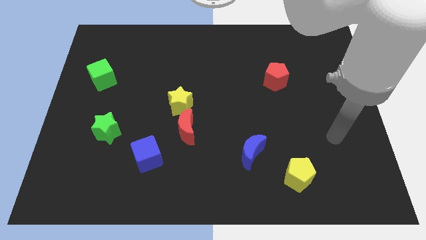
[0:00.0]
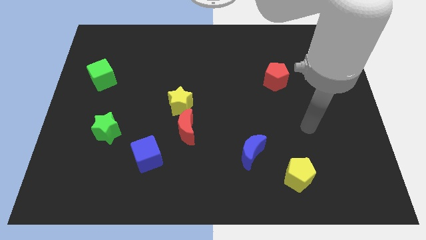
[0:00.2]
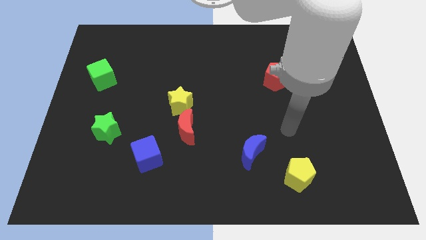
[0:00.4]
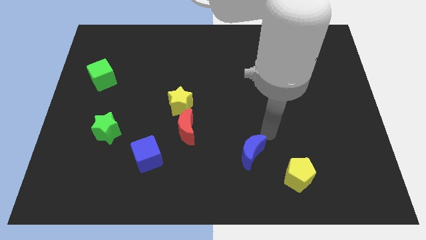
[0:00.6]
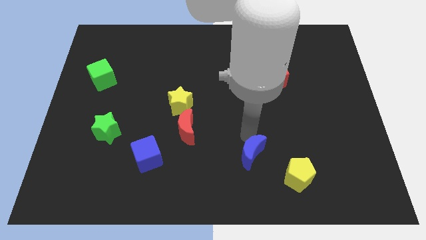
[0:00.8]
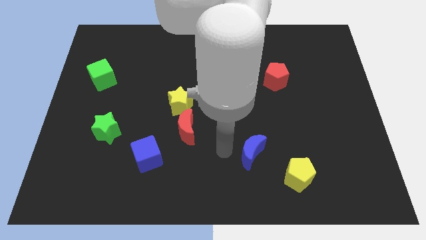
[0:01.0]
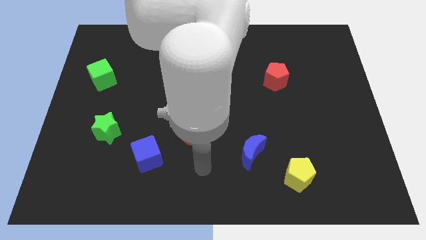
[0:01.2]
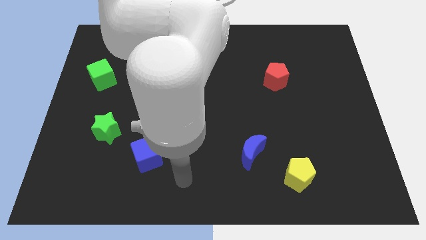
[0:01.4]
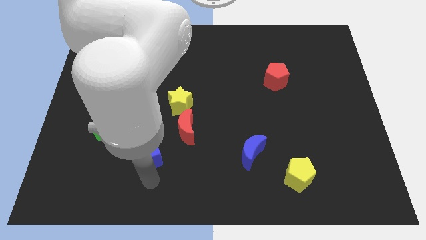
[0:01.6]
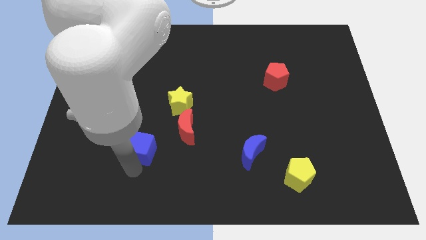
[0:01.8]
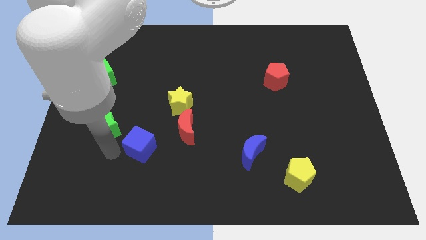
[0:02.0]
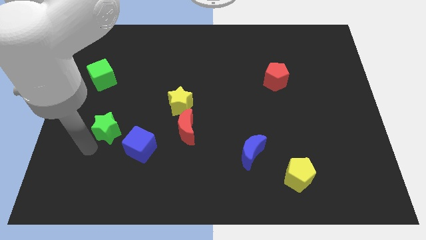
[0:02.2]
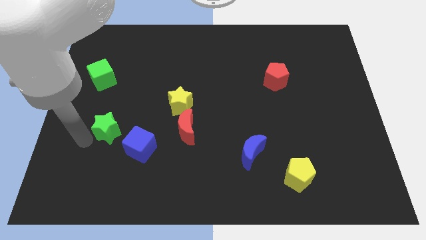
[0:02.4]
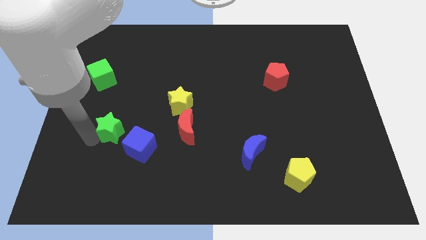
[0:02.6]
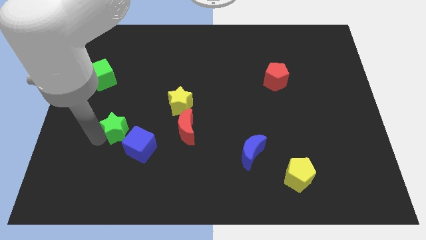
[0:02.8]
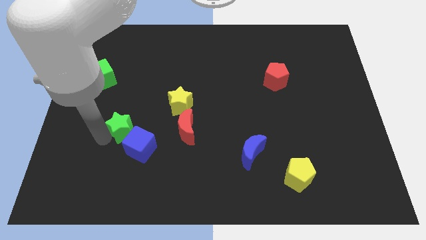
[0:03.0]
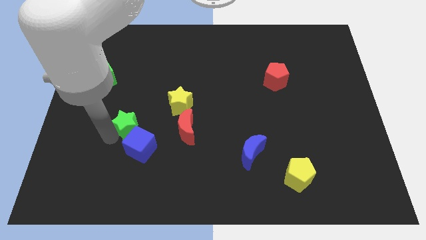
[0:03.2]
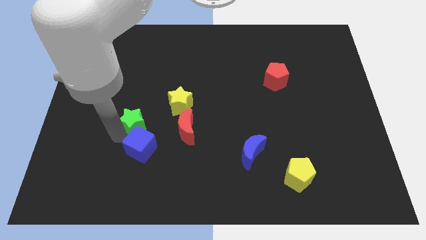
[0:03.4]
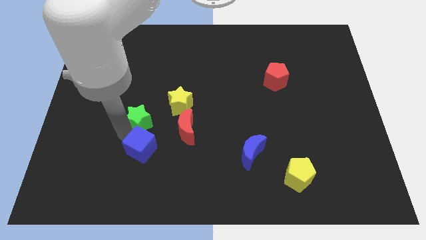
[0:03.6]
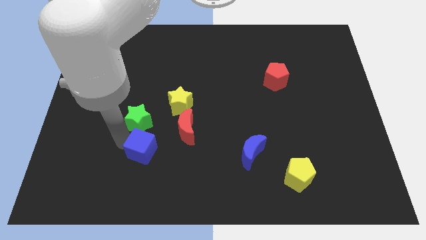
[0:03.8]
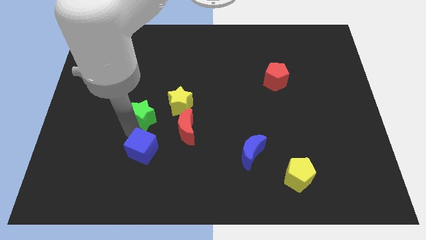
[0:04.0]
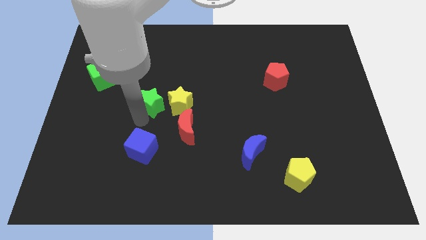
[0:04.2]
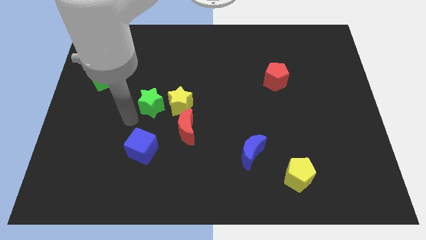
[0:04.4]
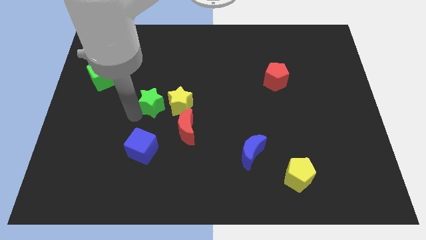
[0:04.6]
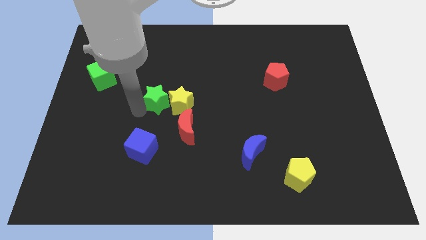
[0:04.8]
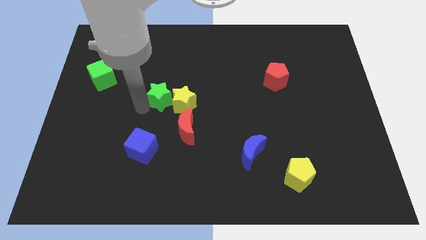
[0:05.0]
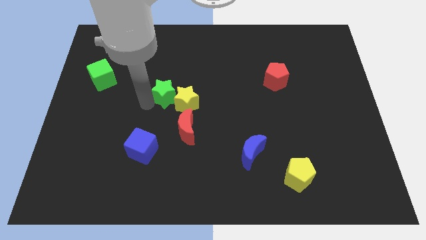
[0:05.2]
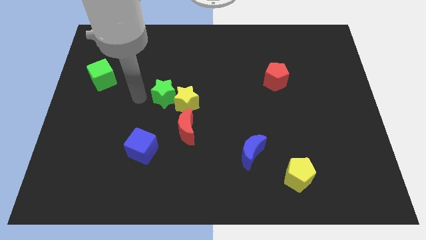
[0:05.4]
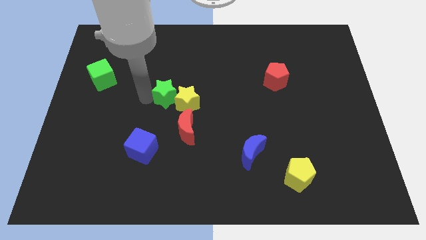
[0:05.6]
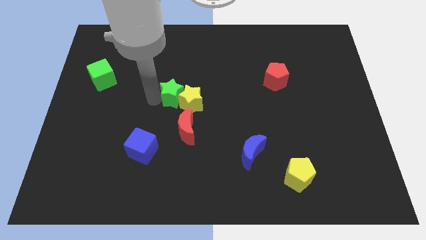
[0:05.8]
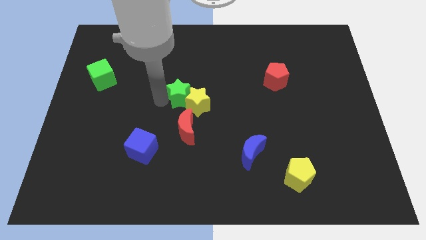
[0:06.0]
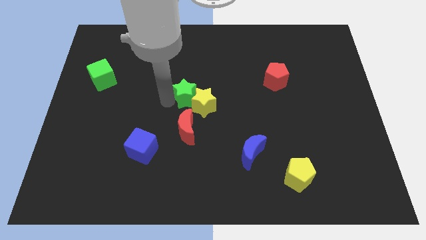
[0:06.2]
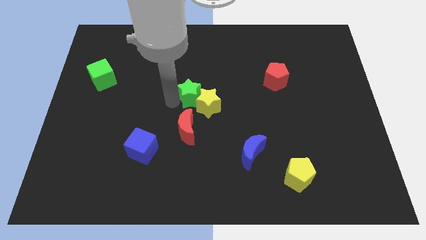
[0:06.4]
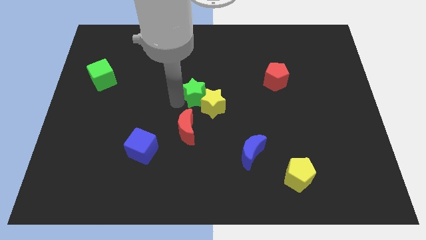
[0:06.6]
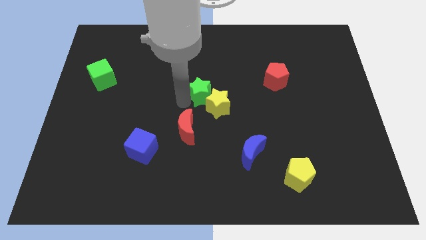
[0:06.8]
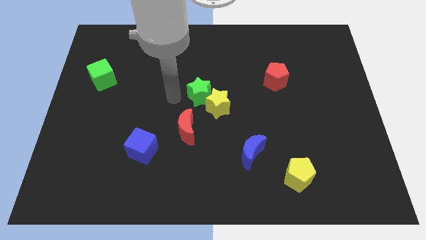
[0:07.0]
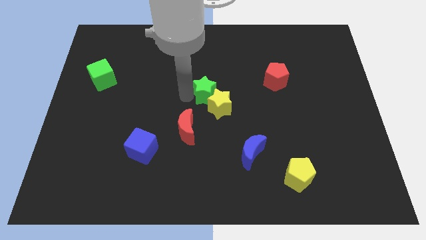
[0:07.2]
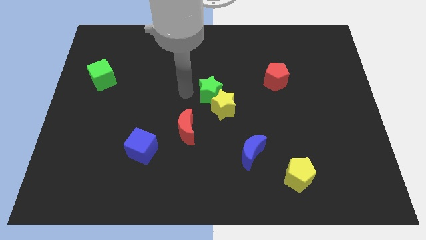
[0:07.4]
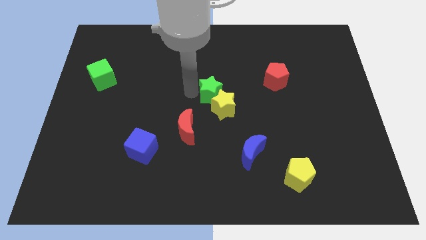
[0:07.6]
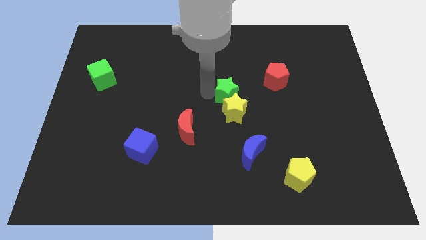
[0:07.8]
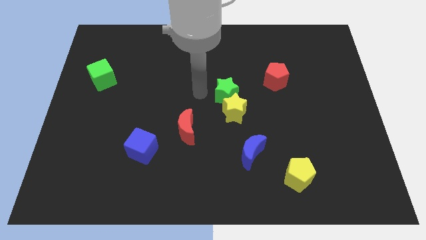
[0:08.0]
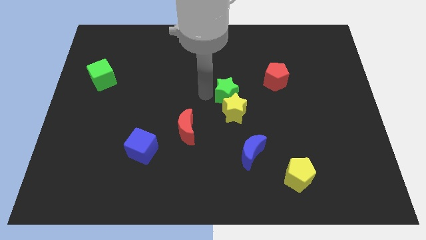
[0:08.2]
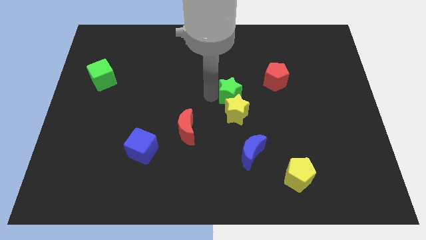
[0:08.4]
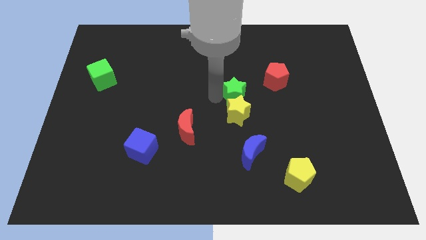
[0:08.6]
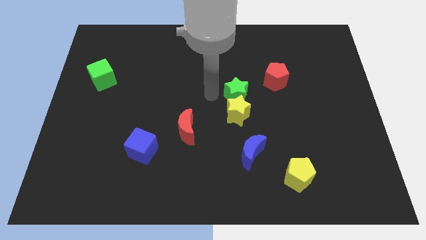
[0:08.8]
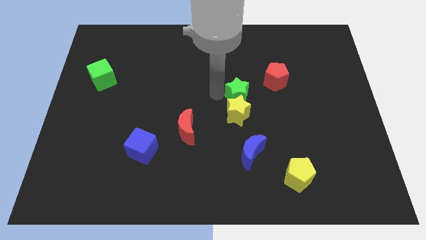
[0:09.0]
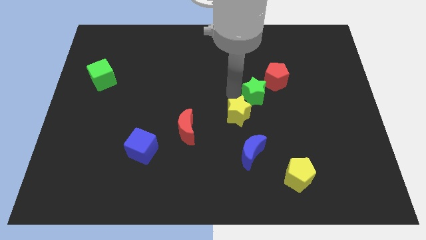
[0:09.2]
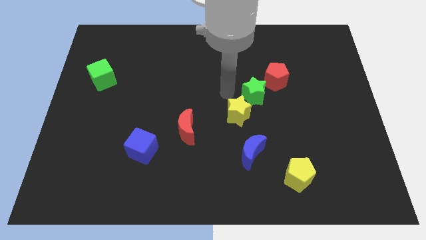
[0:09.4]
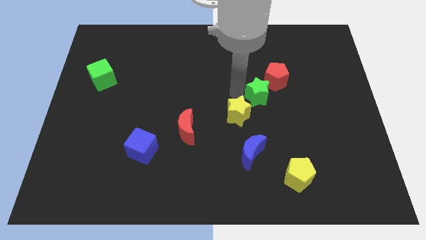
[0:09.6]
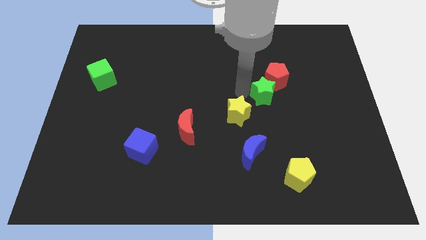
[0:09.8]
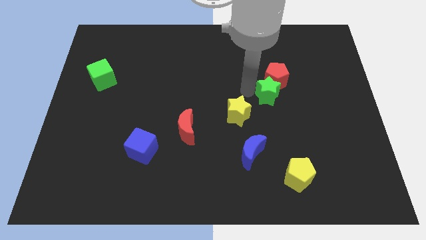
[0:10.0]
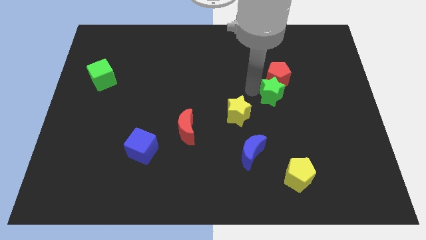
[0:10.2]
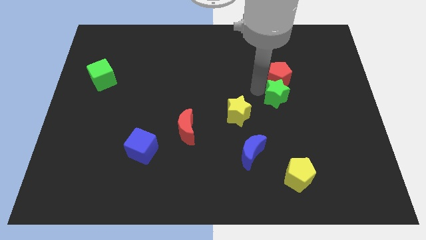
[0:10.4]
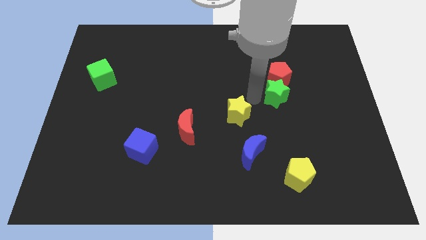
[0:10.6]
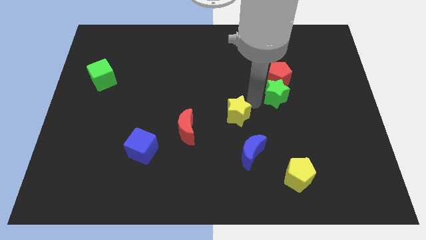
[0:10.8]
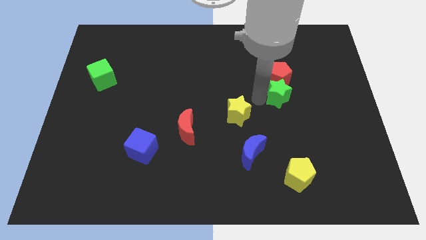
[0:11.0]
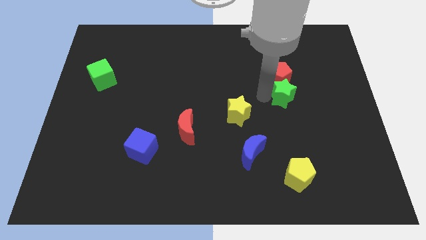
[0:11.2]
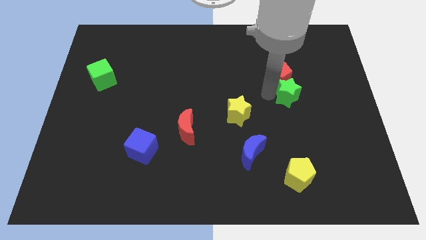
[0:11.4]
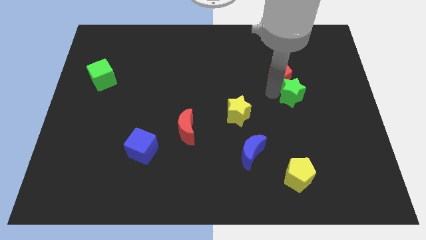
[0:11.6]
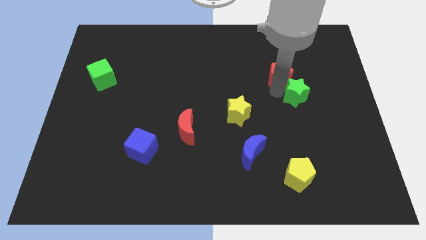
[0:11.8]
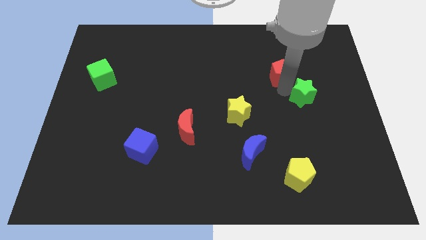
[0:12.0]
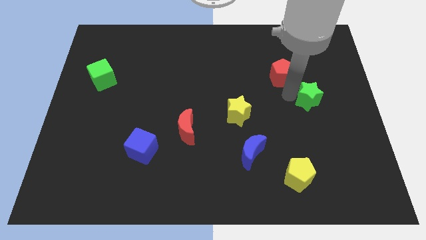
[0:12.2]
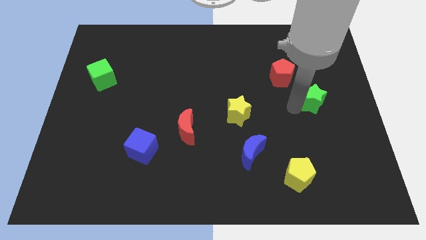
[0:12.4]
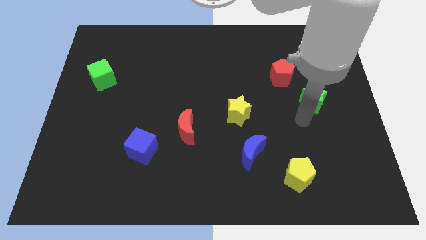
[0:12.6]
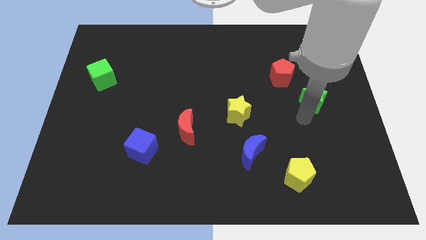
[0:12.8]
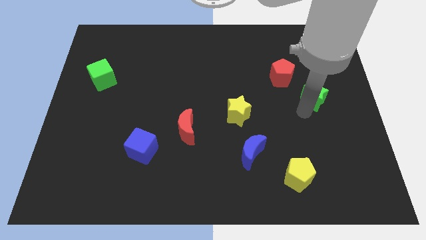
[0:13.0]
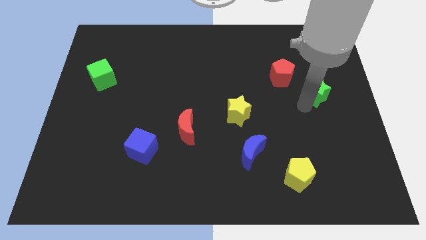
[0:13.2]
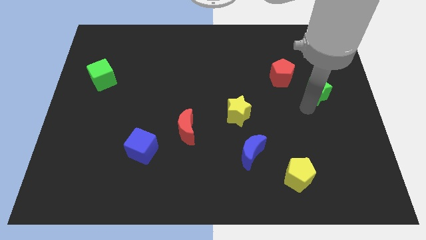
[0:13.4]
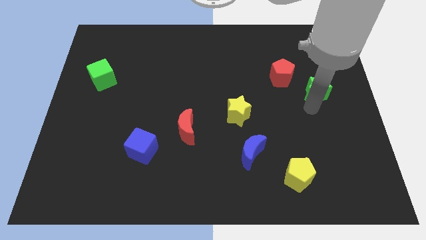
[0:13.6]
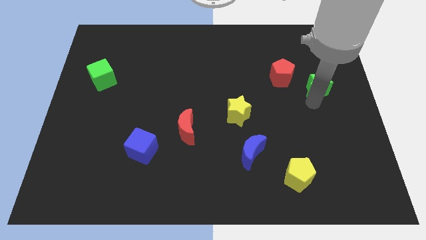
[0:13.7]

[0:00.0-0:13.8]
put the green star to the right side of the red pentagon
